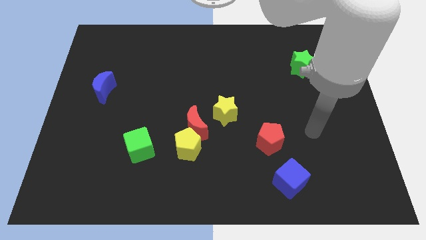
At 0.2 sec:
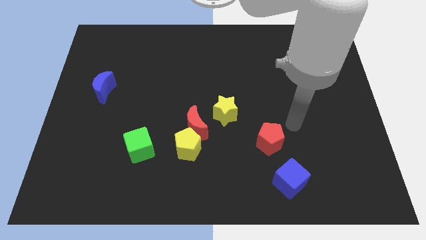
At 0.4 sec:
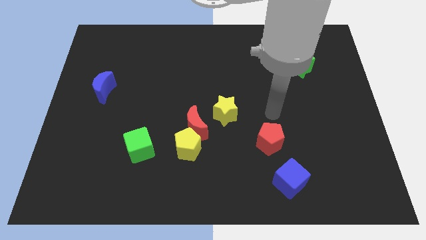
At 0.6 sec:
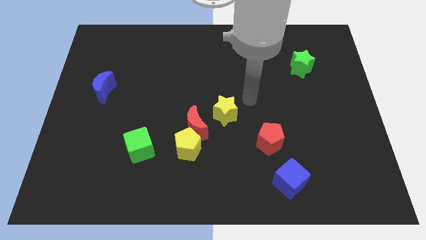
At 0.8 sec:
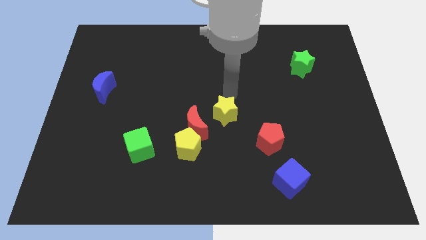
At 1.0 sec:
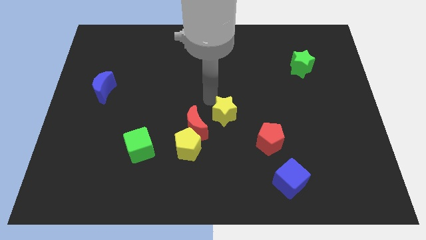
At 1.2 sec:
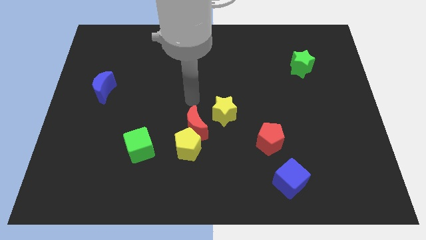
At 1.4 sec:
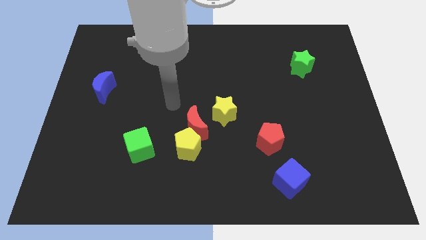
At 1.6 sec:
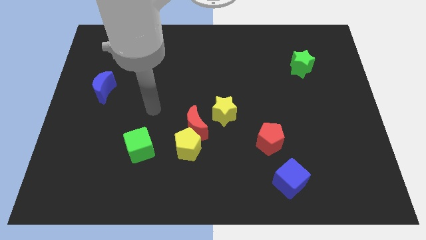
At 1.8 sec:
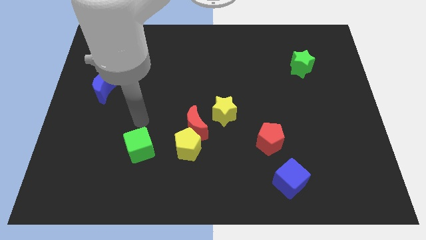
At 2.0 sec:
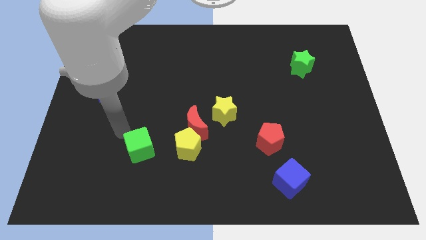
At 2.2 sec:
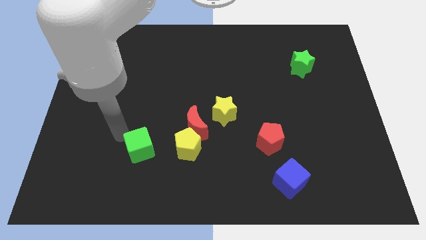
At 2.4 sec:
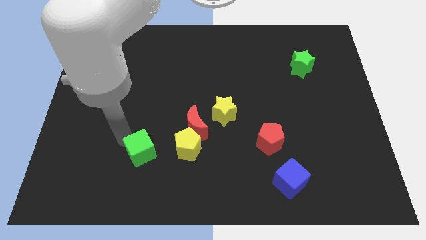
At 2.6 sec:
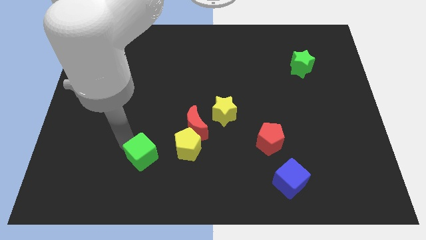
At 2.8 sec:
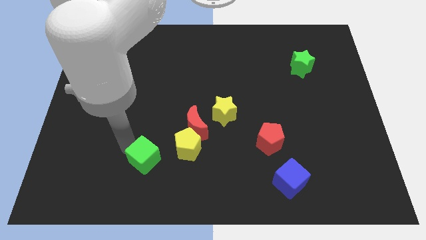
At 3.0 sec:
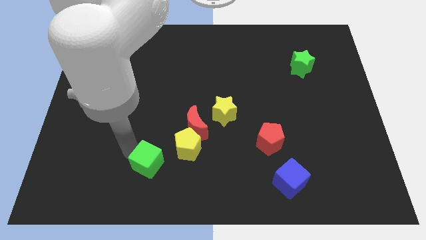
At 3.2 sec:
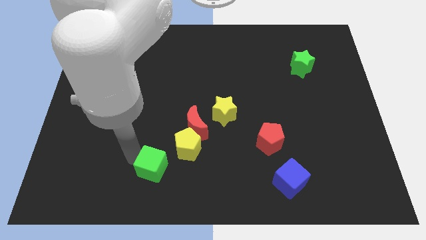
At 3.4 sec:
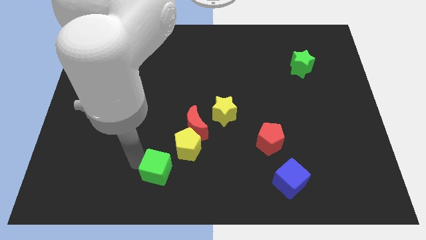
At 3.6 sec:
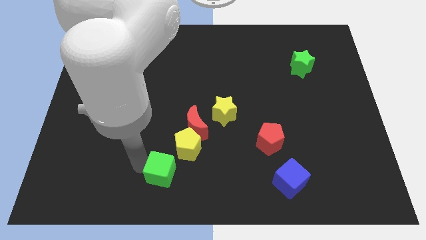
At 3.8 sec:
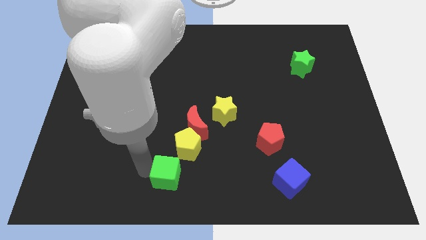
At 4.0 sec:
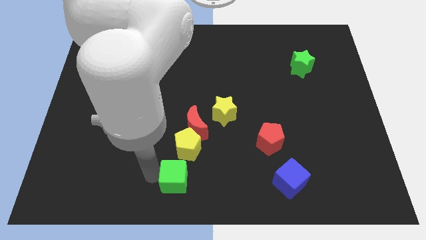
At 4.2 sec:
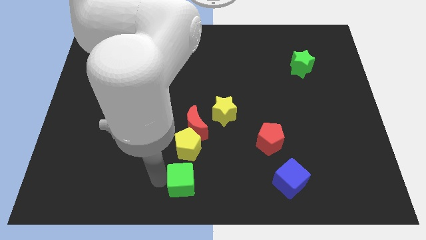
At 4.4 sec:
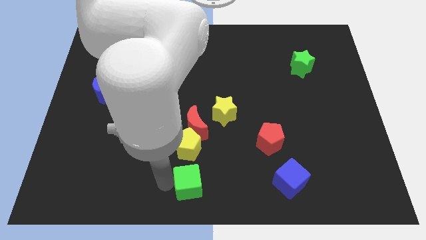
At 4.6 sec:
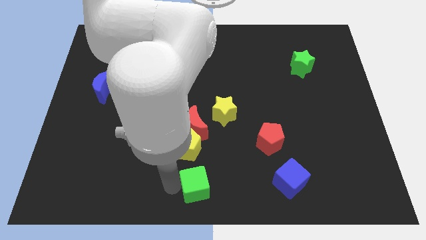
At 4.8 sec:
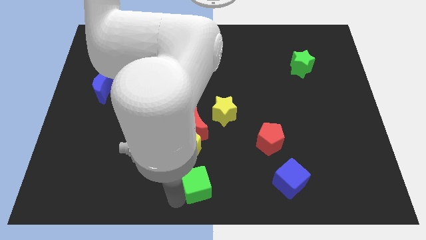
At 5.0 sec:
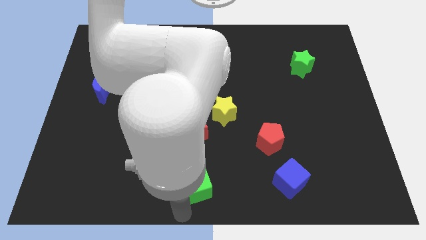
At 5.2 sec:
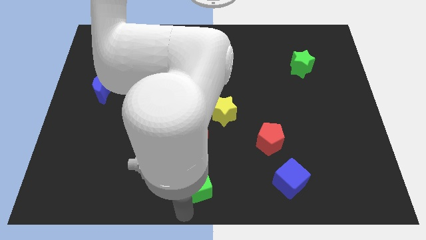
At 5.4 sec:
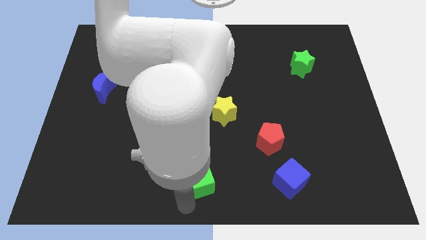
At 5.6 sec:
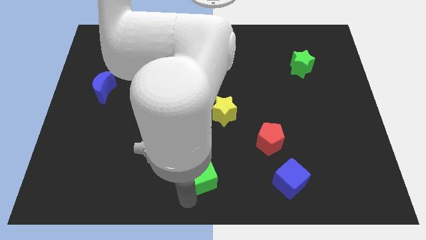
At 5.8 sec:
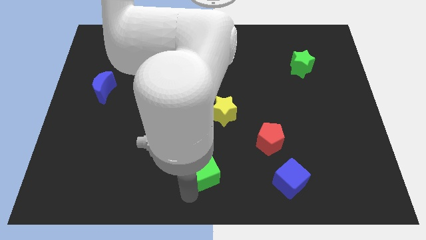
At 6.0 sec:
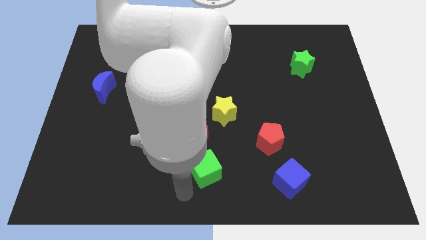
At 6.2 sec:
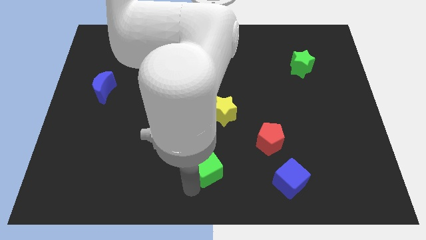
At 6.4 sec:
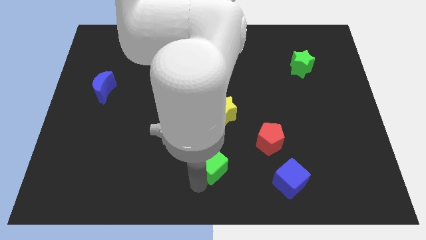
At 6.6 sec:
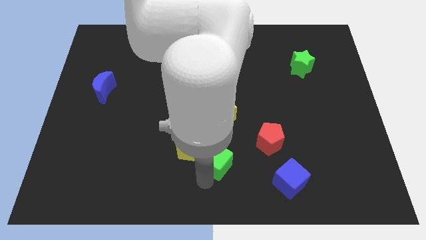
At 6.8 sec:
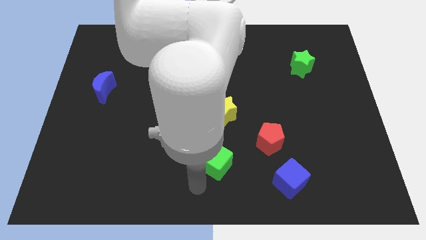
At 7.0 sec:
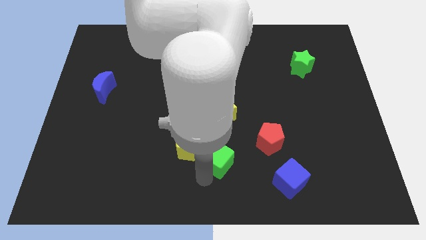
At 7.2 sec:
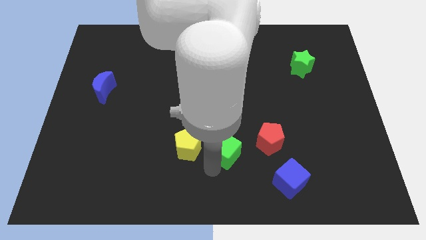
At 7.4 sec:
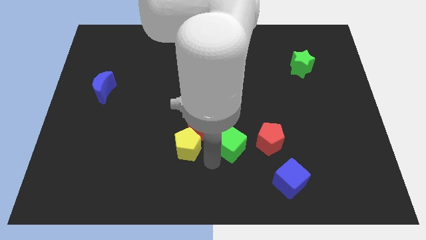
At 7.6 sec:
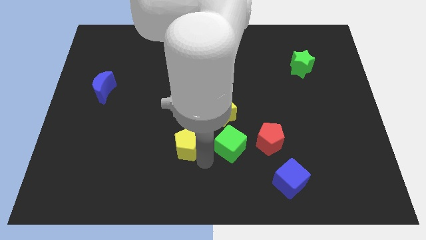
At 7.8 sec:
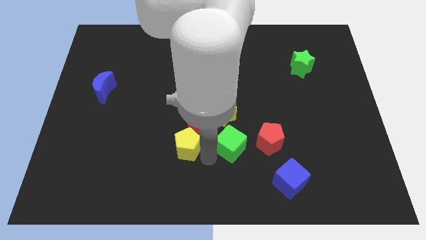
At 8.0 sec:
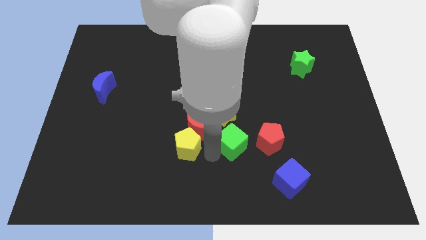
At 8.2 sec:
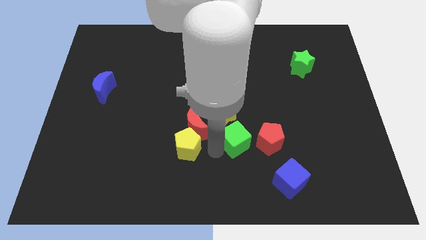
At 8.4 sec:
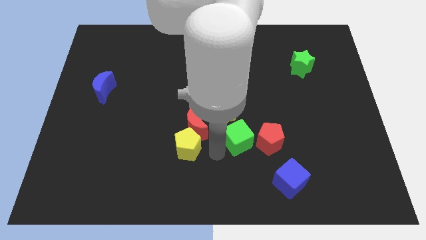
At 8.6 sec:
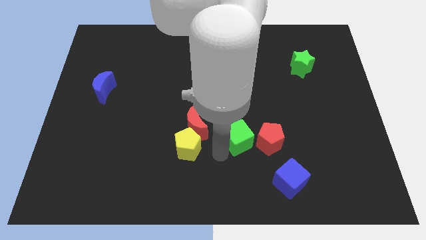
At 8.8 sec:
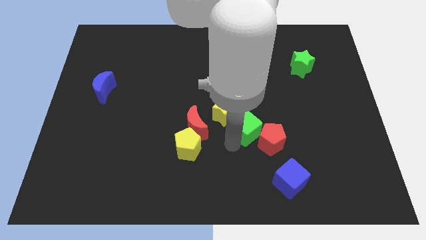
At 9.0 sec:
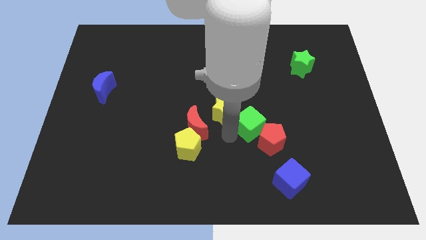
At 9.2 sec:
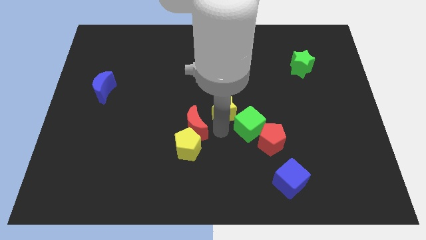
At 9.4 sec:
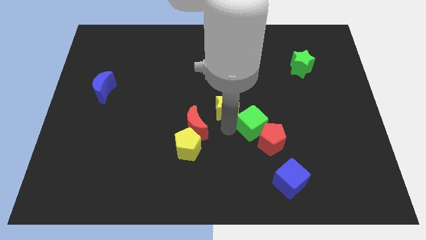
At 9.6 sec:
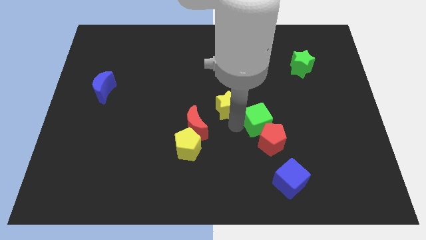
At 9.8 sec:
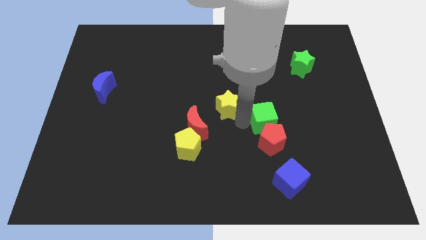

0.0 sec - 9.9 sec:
slide the green cube diagonally up and to the right of the red pentagon

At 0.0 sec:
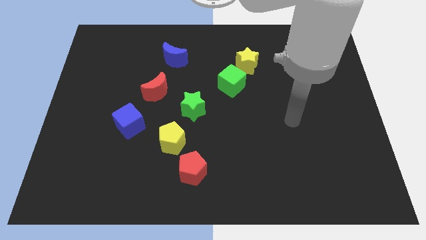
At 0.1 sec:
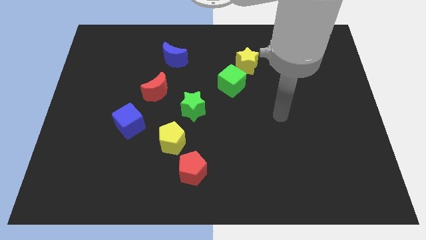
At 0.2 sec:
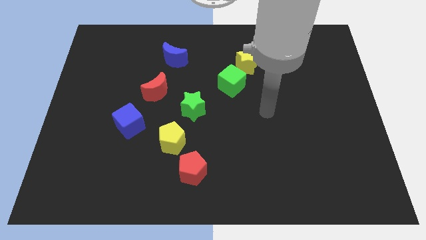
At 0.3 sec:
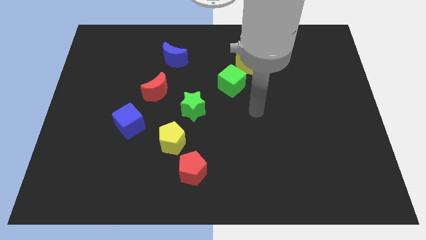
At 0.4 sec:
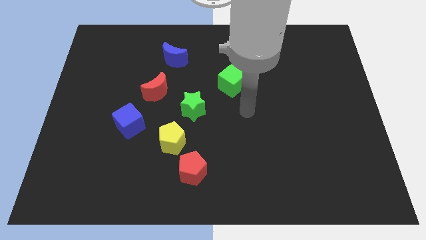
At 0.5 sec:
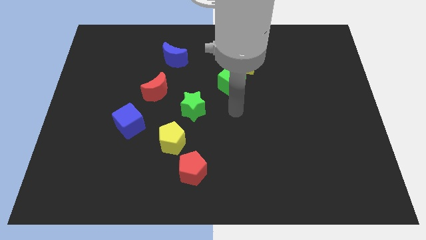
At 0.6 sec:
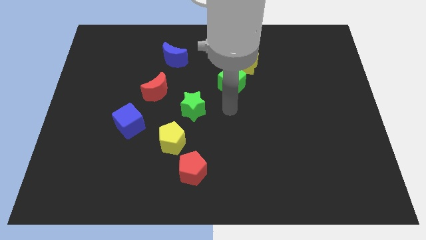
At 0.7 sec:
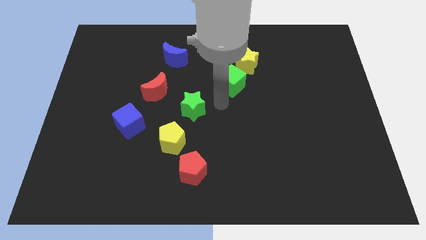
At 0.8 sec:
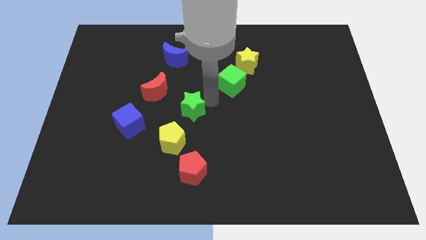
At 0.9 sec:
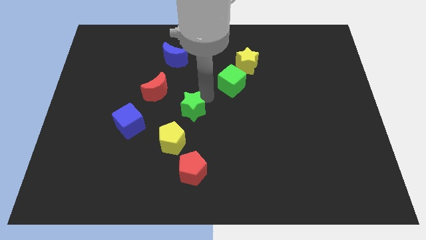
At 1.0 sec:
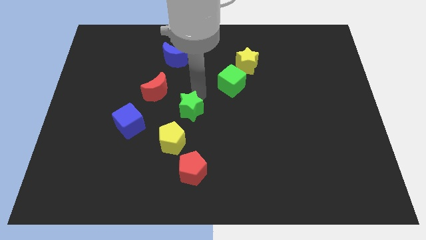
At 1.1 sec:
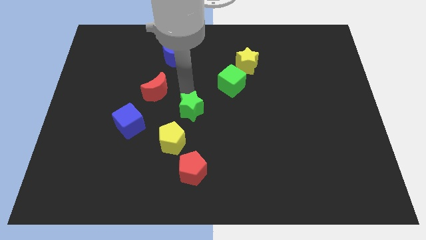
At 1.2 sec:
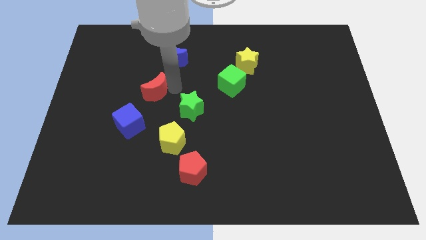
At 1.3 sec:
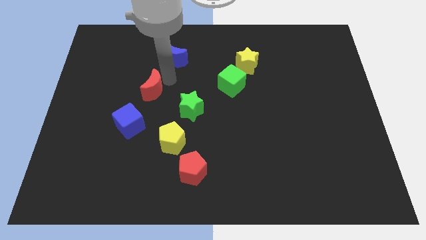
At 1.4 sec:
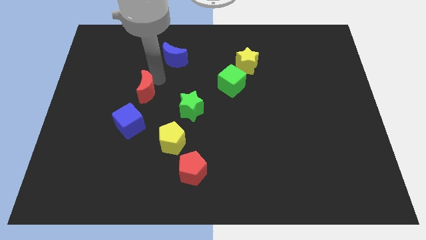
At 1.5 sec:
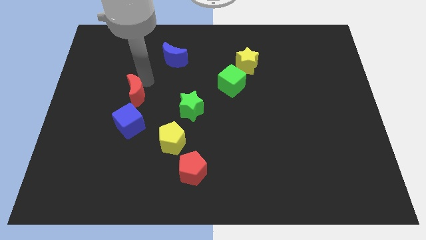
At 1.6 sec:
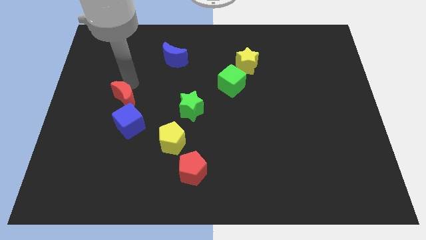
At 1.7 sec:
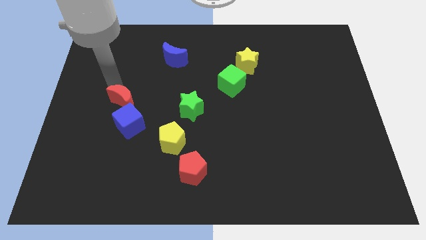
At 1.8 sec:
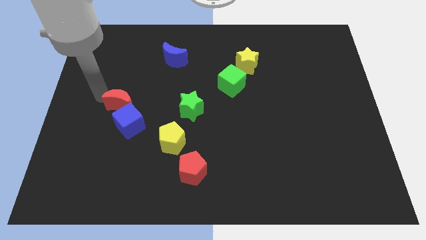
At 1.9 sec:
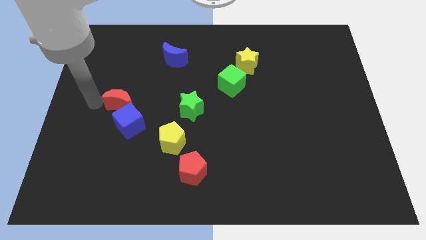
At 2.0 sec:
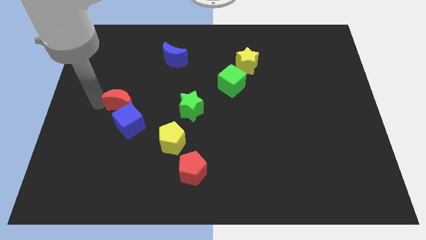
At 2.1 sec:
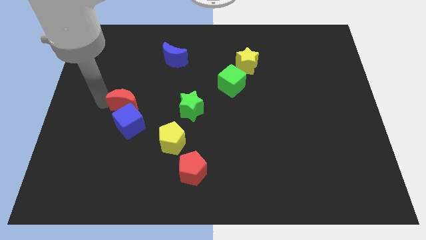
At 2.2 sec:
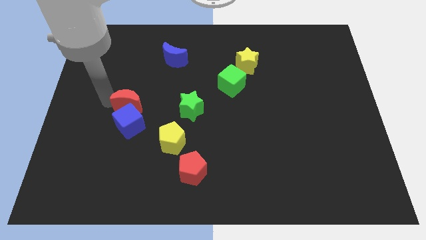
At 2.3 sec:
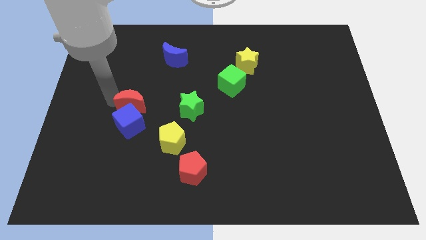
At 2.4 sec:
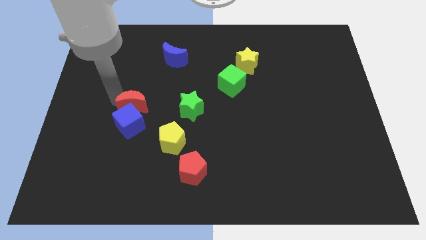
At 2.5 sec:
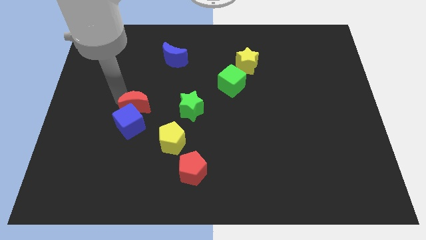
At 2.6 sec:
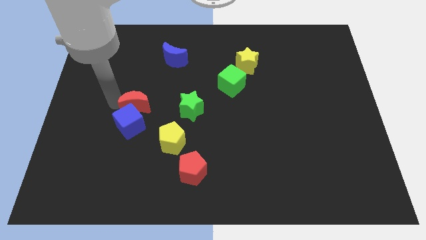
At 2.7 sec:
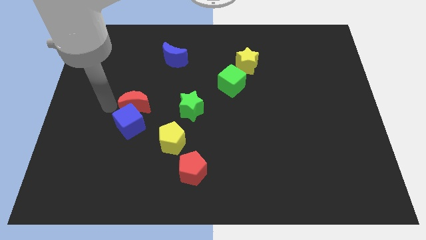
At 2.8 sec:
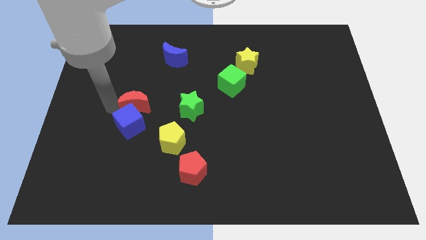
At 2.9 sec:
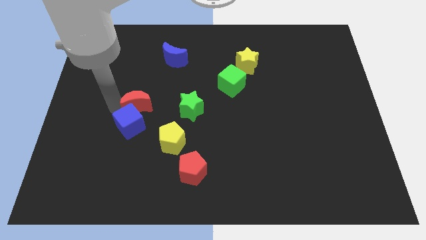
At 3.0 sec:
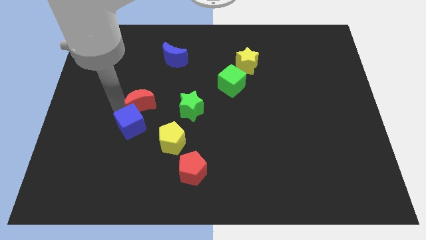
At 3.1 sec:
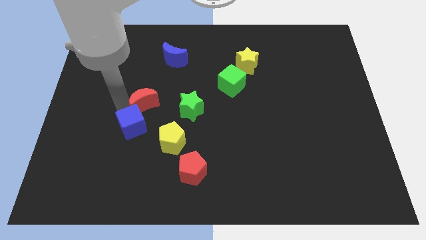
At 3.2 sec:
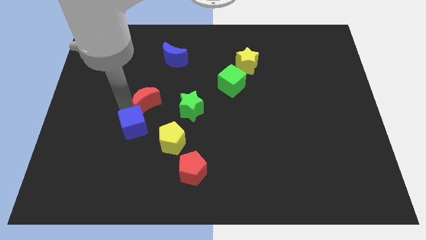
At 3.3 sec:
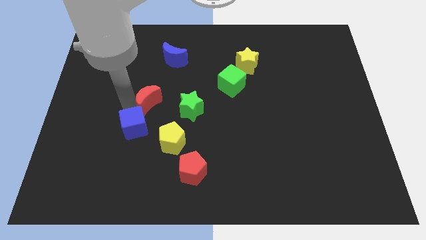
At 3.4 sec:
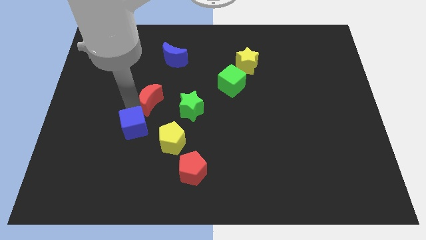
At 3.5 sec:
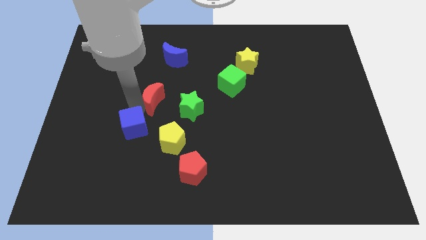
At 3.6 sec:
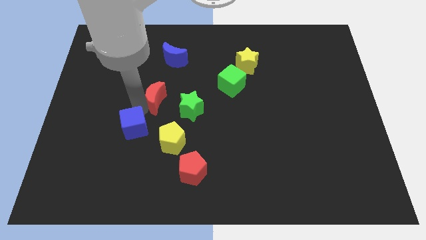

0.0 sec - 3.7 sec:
push the red moon above the yellow pentagon
